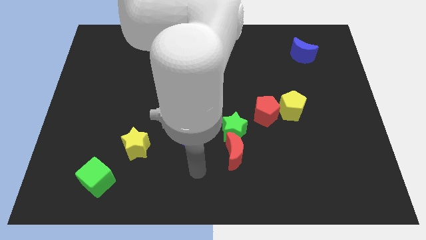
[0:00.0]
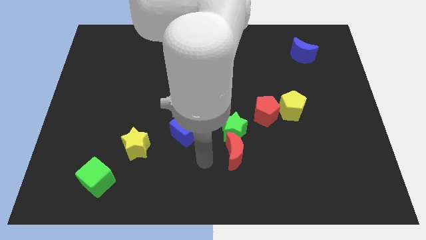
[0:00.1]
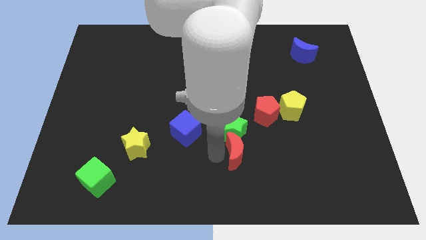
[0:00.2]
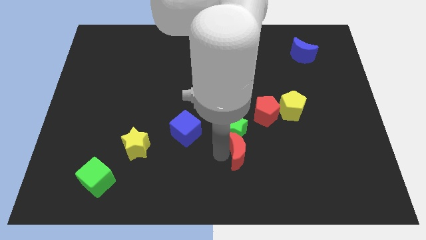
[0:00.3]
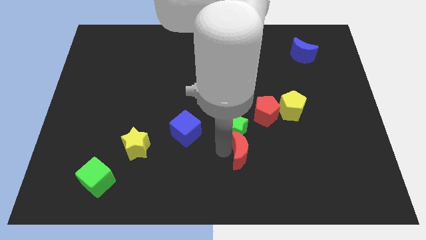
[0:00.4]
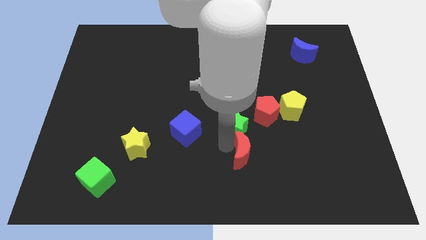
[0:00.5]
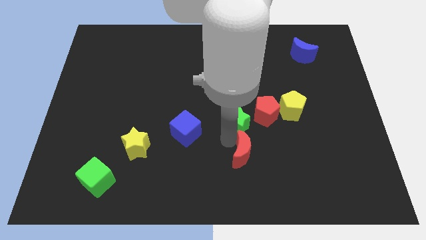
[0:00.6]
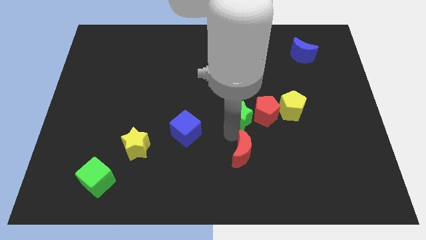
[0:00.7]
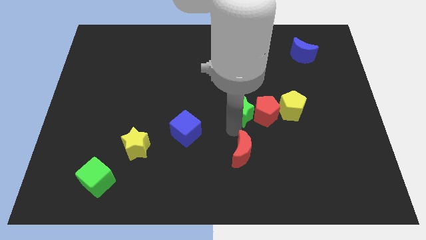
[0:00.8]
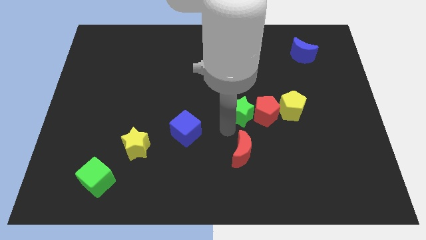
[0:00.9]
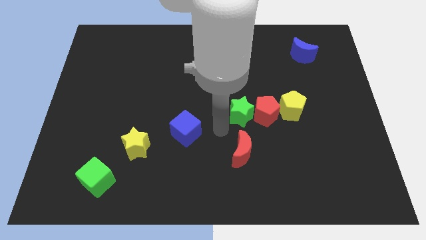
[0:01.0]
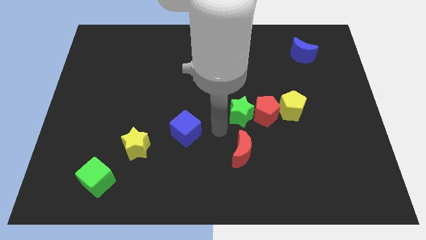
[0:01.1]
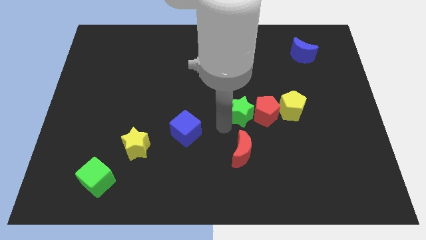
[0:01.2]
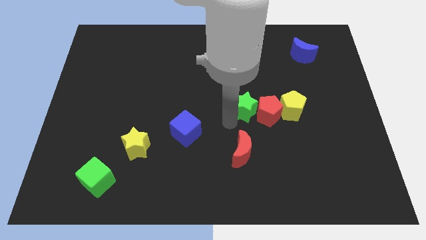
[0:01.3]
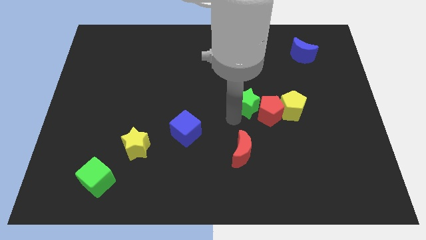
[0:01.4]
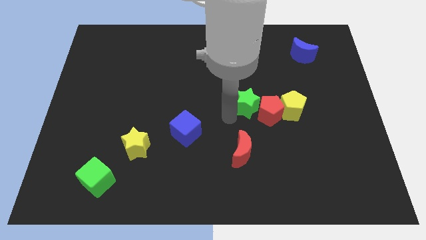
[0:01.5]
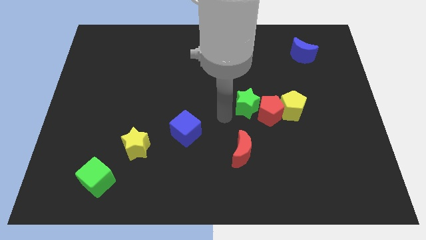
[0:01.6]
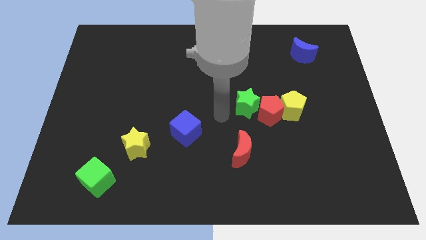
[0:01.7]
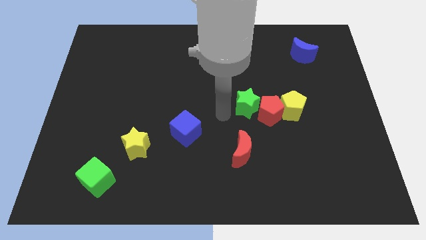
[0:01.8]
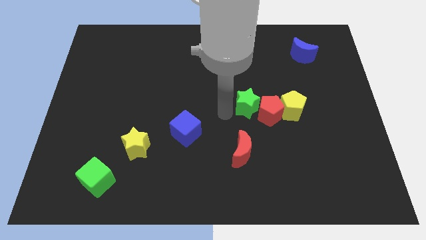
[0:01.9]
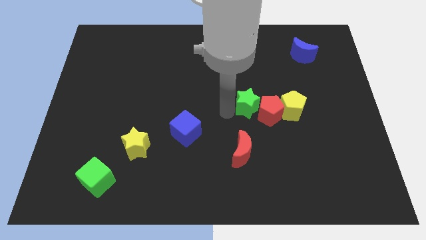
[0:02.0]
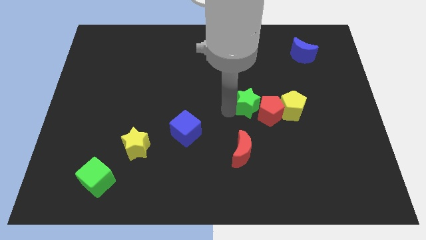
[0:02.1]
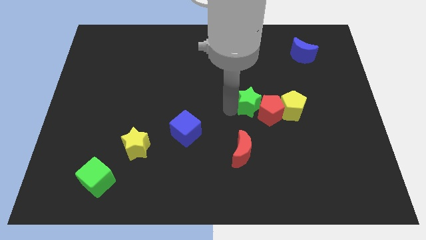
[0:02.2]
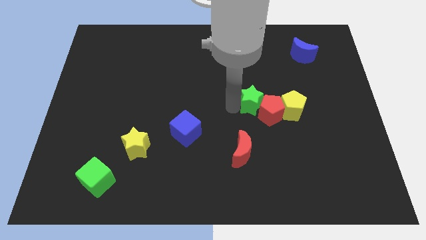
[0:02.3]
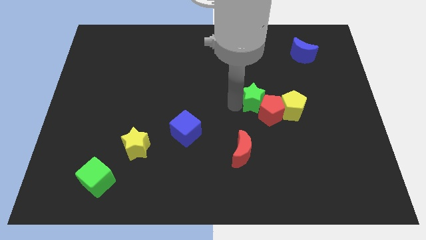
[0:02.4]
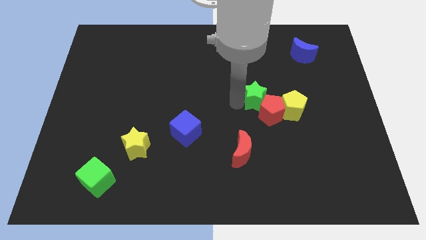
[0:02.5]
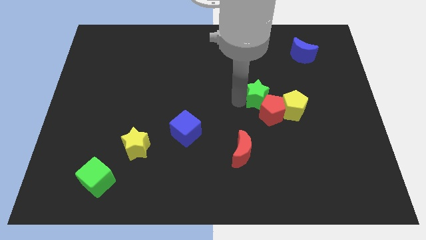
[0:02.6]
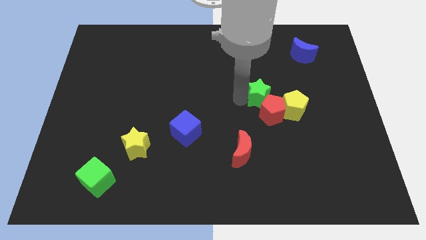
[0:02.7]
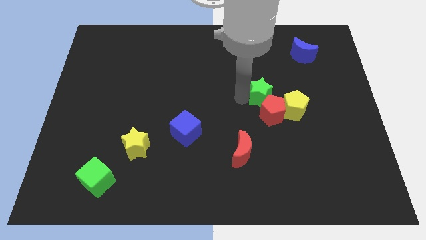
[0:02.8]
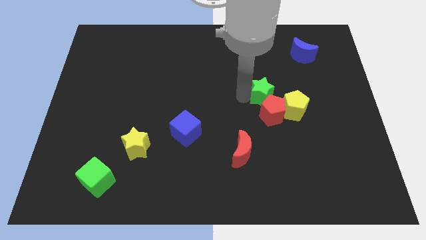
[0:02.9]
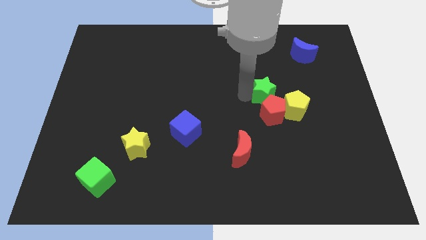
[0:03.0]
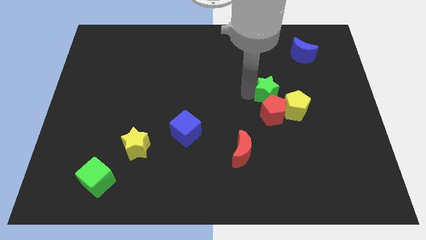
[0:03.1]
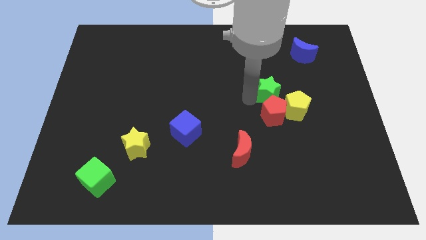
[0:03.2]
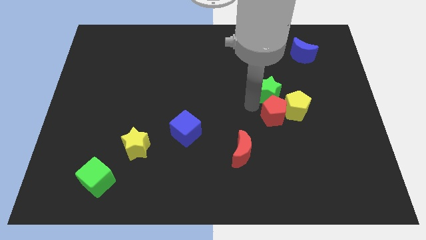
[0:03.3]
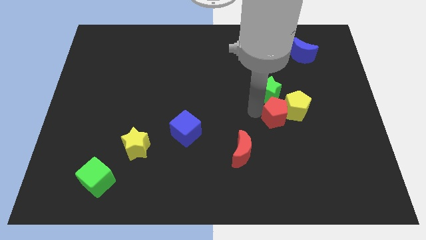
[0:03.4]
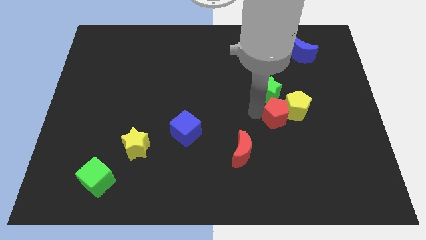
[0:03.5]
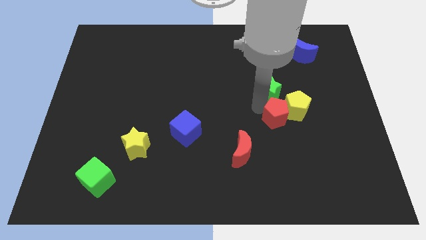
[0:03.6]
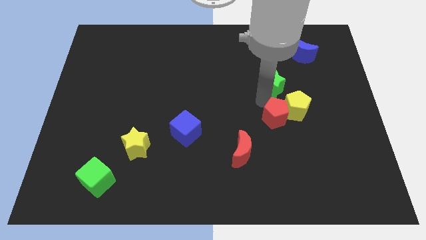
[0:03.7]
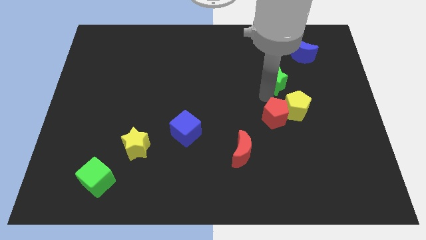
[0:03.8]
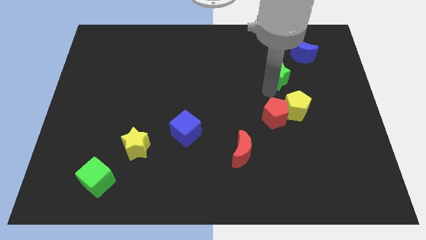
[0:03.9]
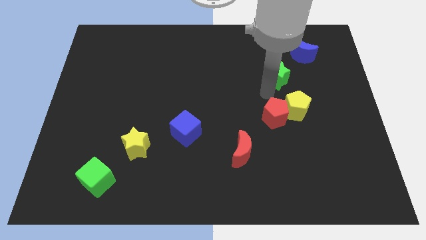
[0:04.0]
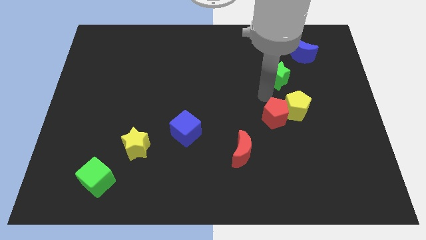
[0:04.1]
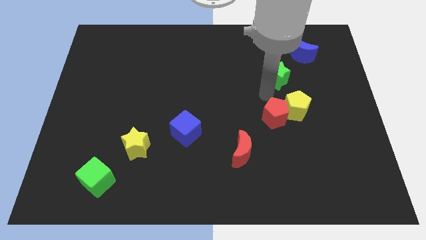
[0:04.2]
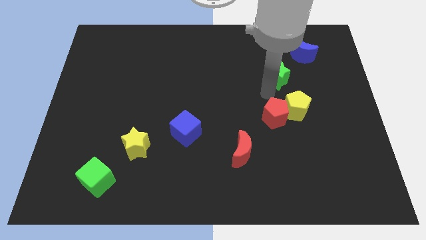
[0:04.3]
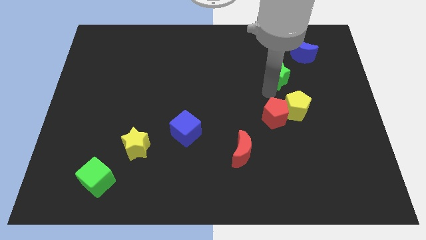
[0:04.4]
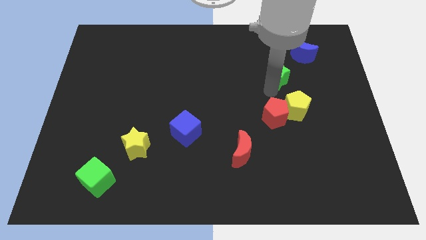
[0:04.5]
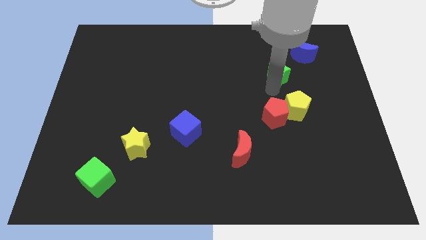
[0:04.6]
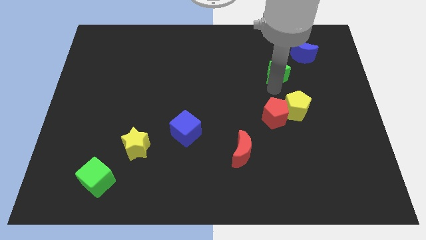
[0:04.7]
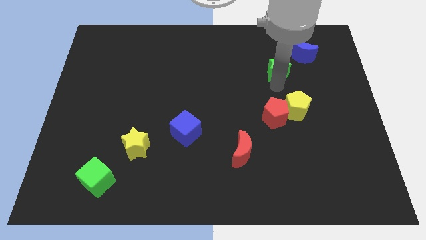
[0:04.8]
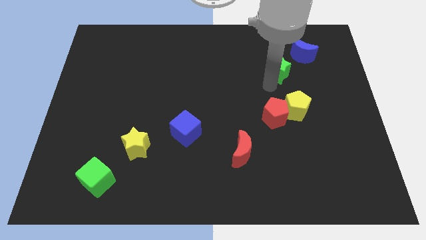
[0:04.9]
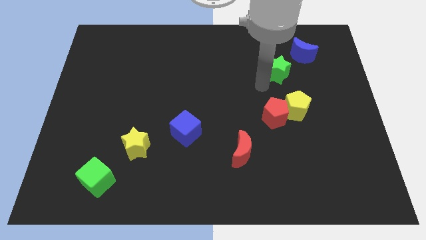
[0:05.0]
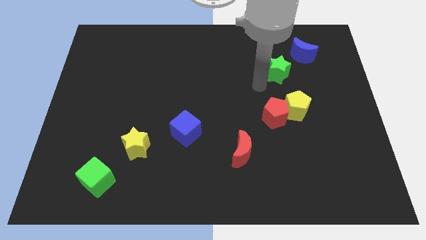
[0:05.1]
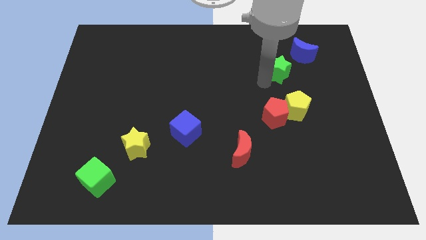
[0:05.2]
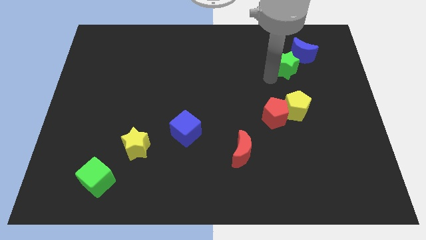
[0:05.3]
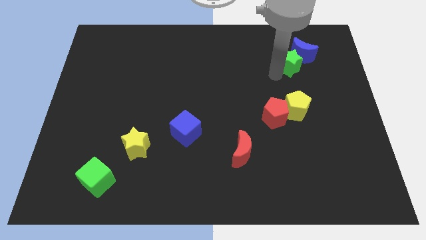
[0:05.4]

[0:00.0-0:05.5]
put the green star close to the blue moon

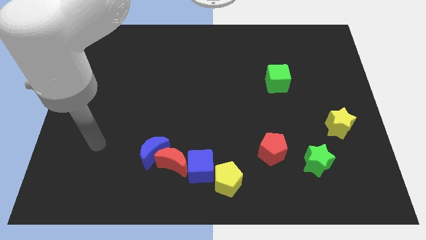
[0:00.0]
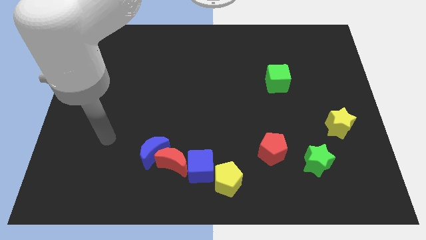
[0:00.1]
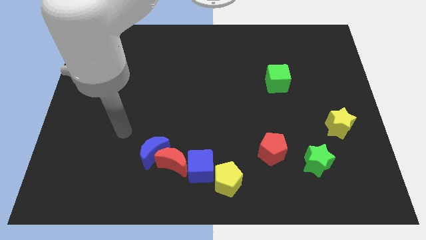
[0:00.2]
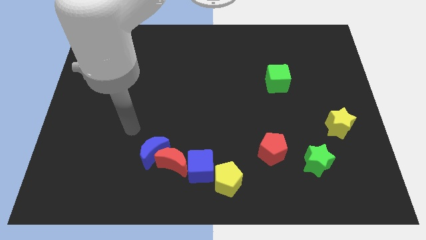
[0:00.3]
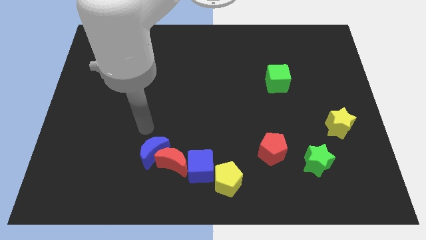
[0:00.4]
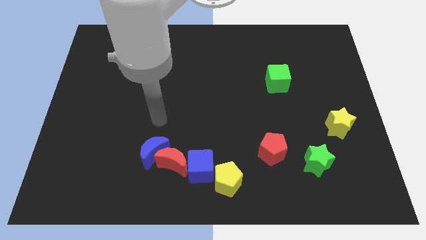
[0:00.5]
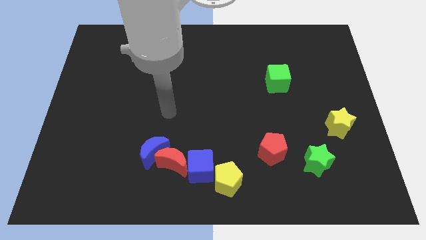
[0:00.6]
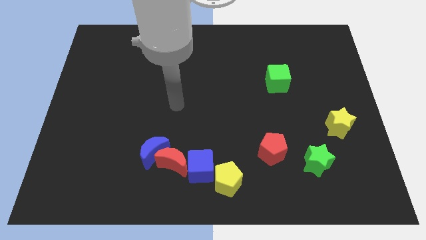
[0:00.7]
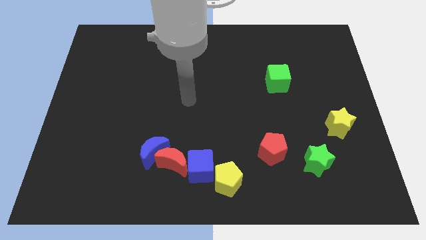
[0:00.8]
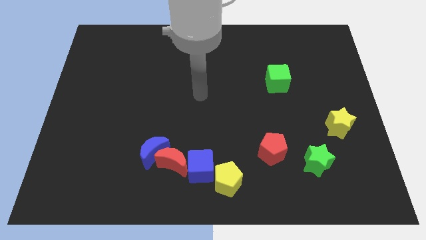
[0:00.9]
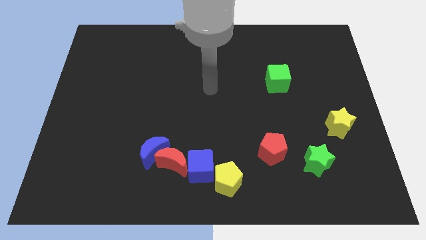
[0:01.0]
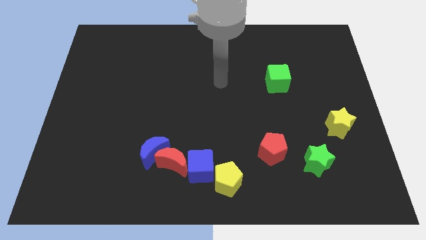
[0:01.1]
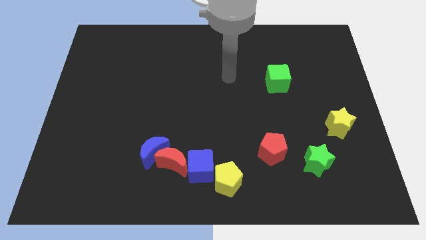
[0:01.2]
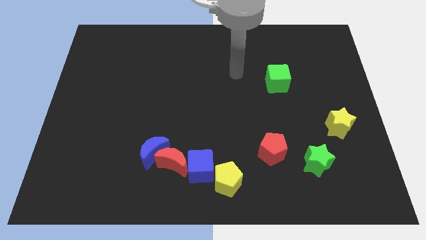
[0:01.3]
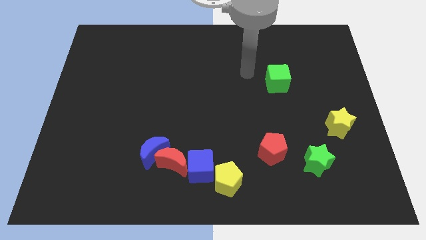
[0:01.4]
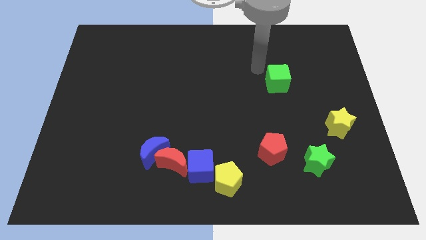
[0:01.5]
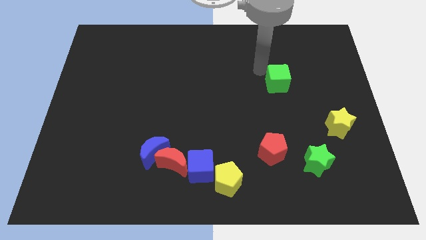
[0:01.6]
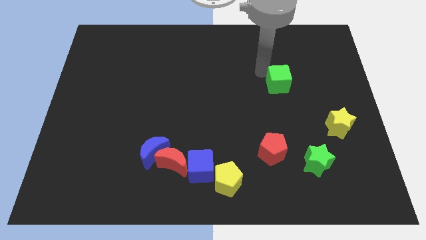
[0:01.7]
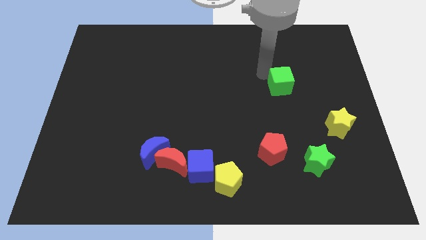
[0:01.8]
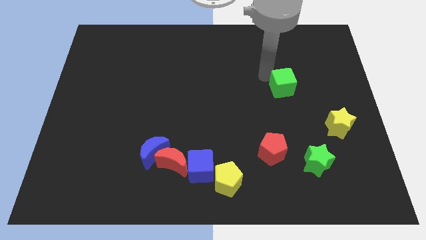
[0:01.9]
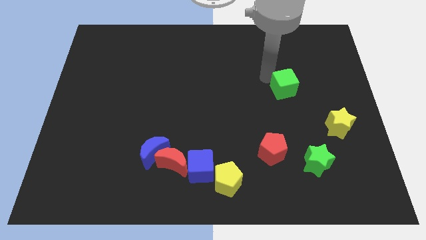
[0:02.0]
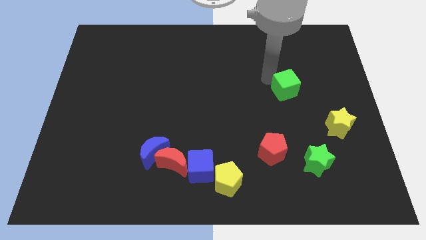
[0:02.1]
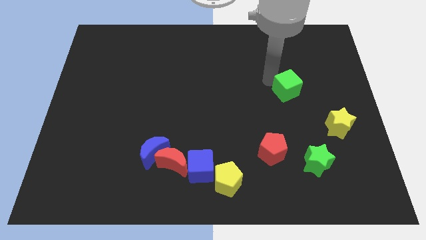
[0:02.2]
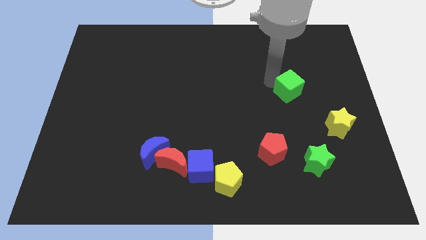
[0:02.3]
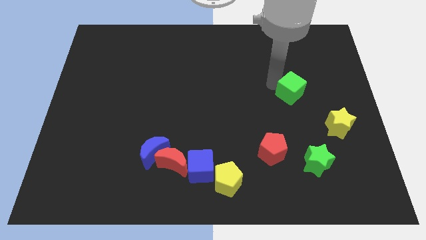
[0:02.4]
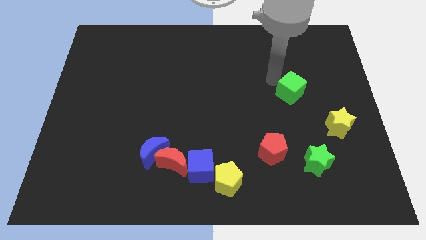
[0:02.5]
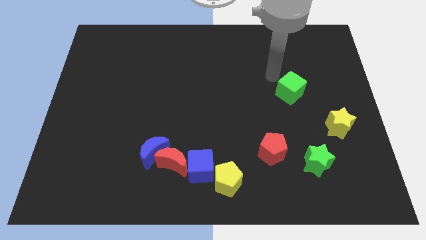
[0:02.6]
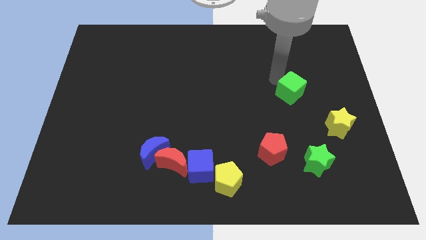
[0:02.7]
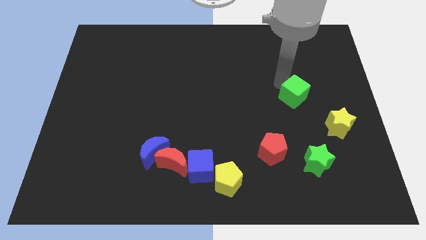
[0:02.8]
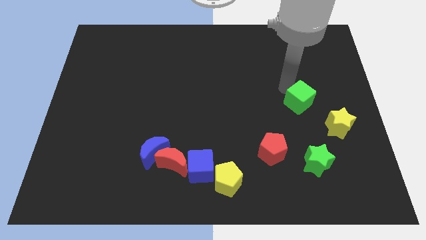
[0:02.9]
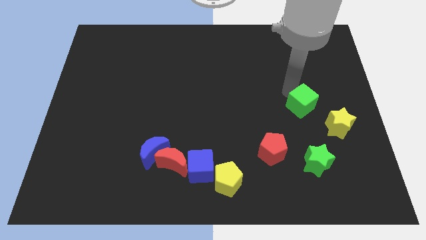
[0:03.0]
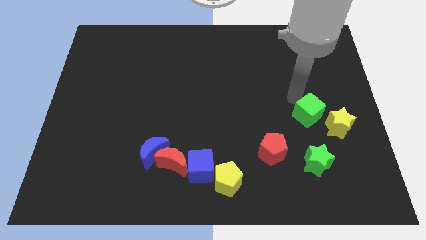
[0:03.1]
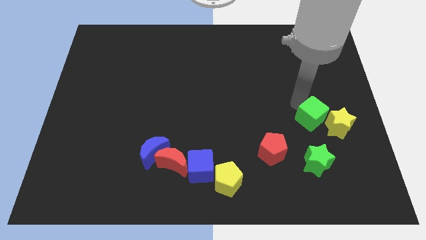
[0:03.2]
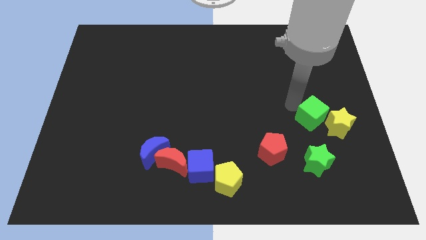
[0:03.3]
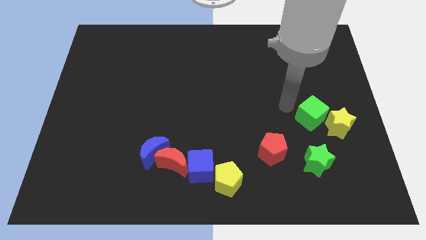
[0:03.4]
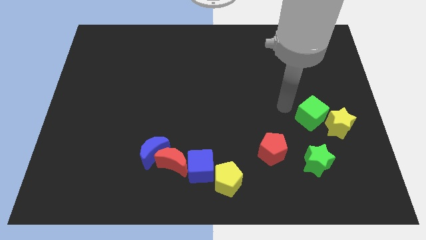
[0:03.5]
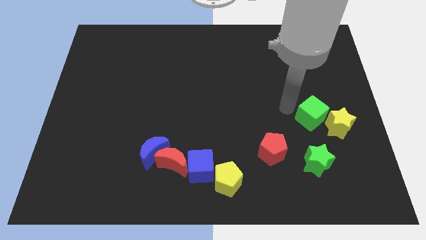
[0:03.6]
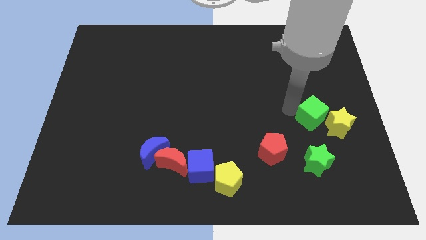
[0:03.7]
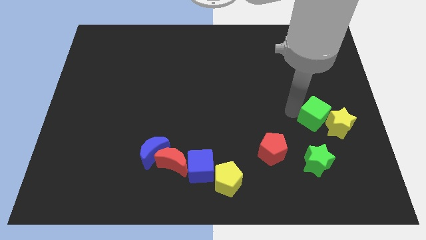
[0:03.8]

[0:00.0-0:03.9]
push the green cube towards the yellow star
